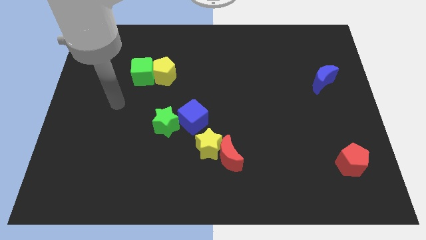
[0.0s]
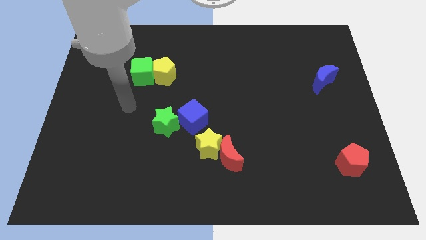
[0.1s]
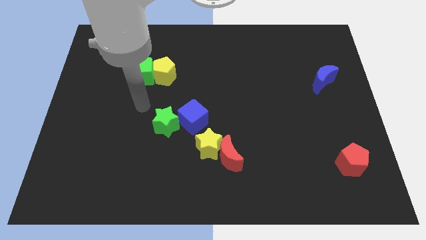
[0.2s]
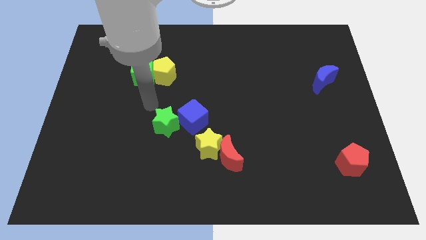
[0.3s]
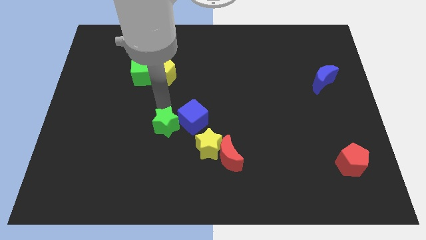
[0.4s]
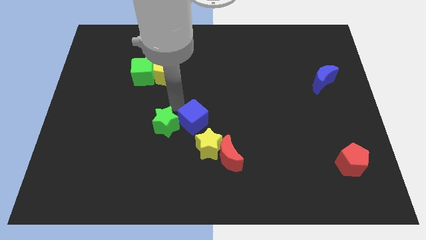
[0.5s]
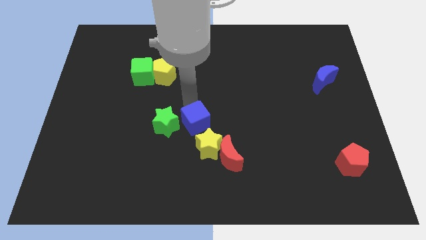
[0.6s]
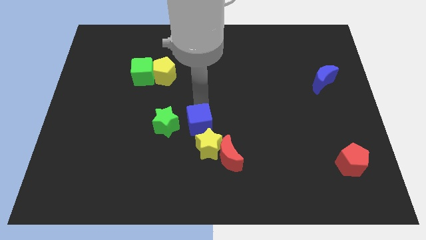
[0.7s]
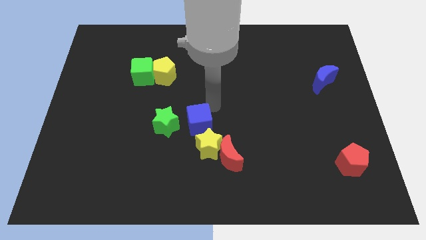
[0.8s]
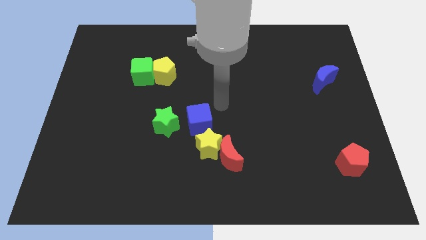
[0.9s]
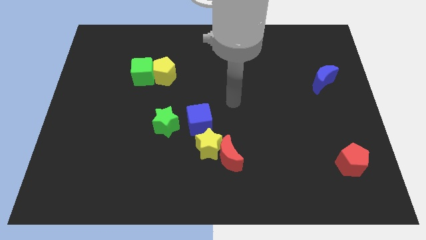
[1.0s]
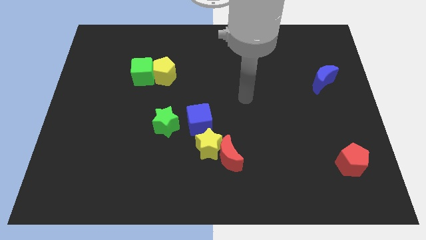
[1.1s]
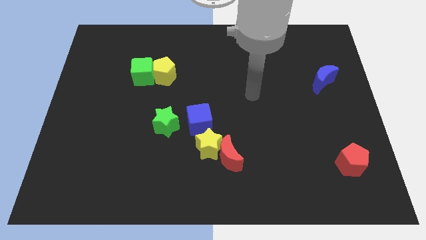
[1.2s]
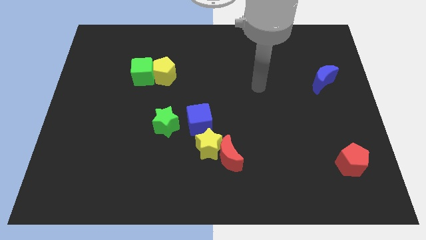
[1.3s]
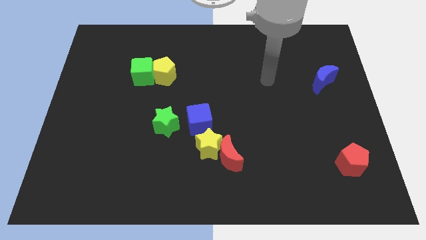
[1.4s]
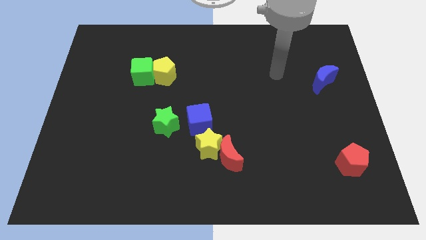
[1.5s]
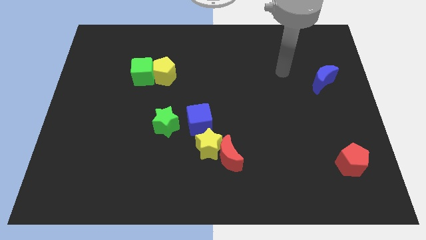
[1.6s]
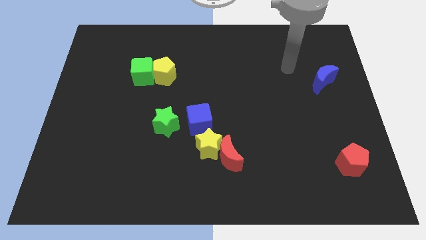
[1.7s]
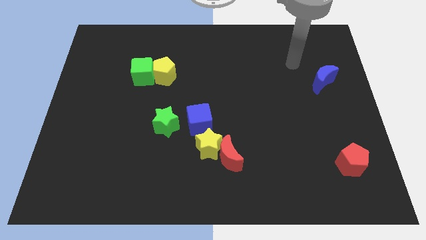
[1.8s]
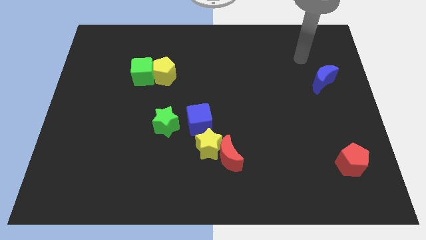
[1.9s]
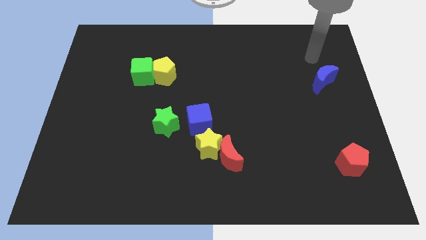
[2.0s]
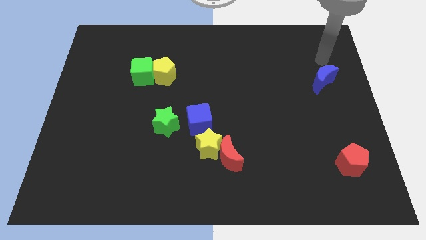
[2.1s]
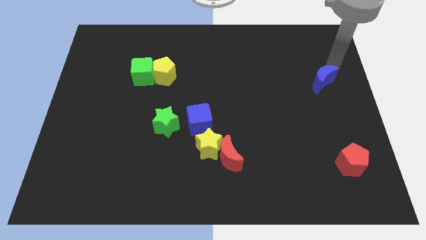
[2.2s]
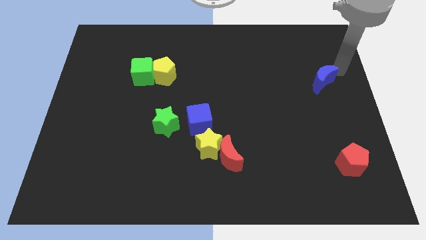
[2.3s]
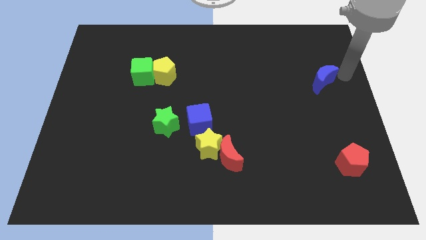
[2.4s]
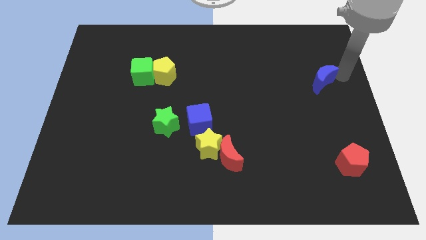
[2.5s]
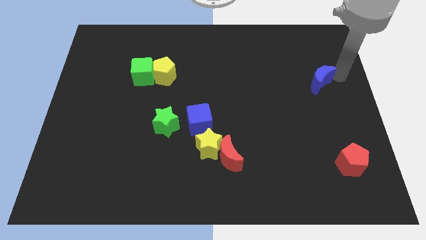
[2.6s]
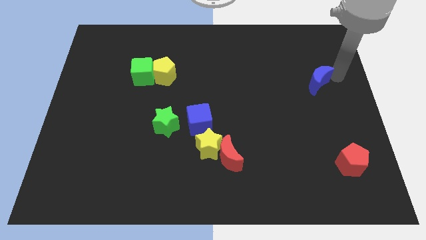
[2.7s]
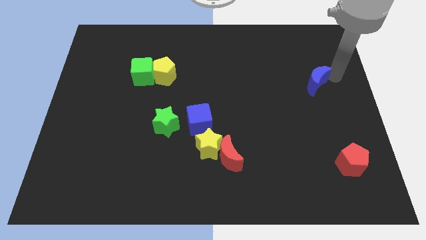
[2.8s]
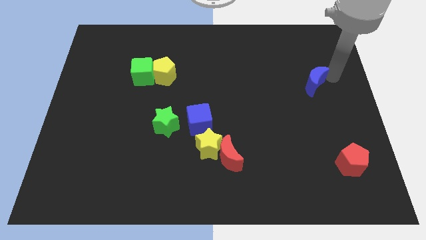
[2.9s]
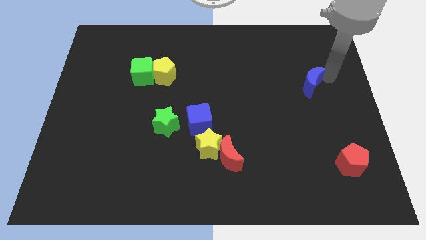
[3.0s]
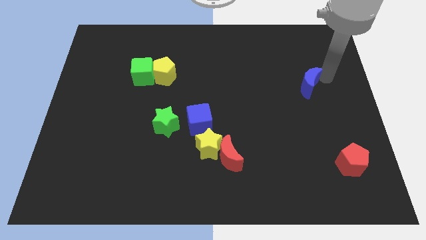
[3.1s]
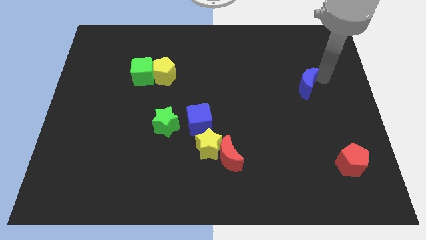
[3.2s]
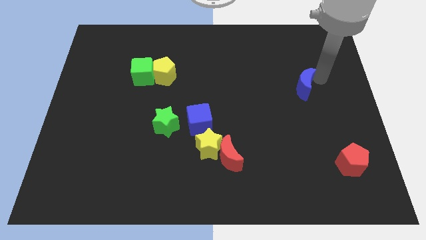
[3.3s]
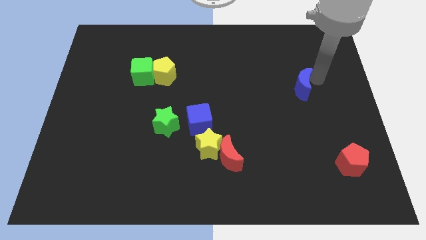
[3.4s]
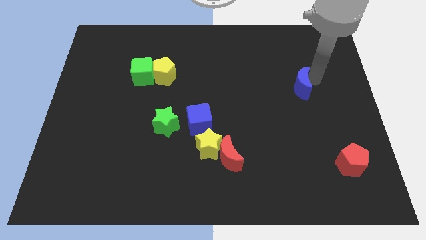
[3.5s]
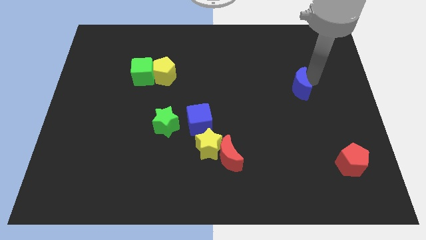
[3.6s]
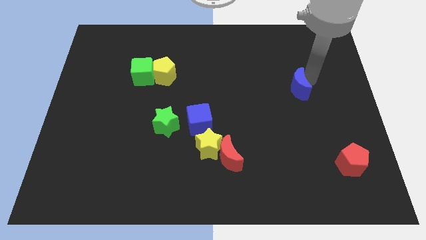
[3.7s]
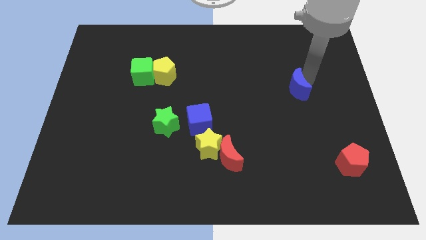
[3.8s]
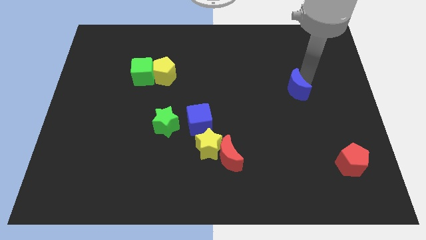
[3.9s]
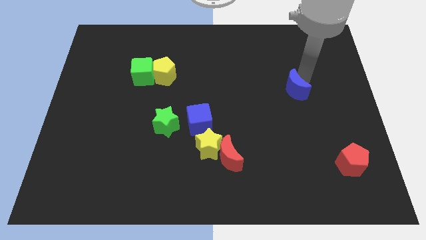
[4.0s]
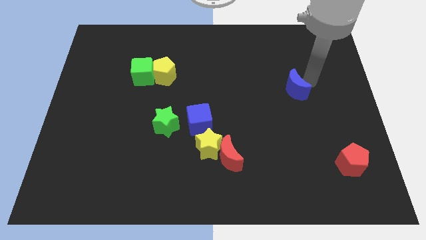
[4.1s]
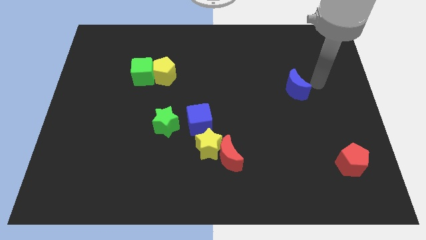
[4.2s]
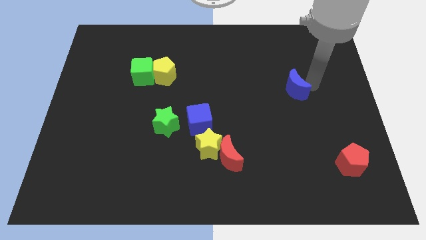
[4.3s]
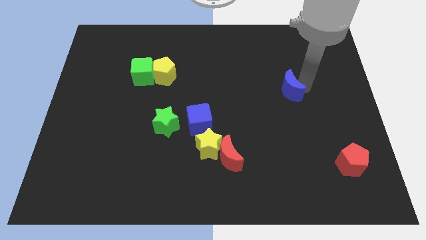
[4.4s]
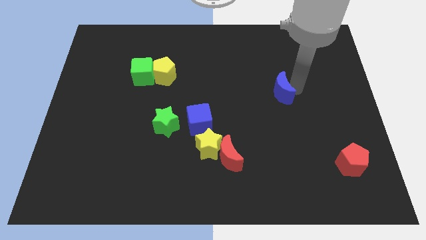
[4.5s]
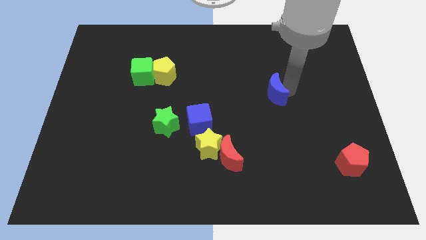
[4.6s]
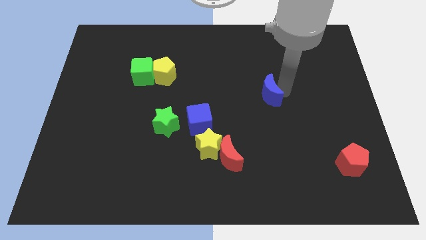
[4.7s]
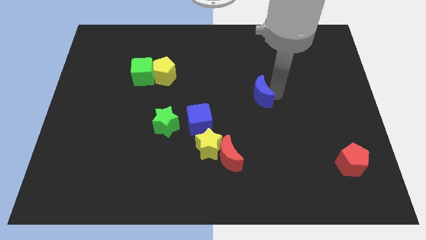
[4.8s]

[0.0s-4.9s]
put the blue moon to the center of the board
